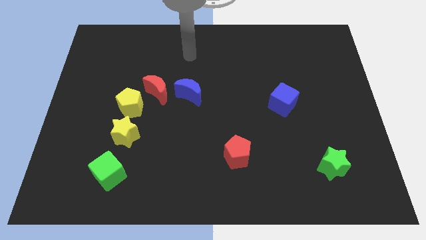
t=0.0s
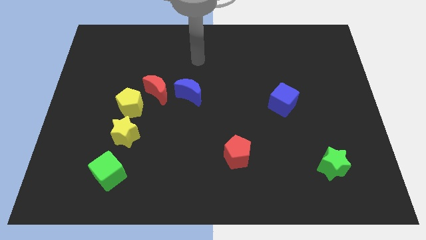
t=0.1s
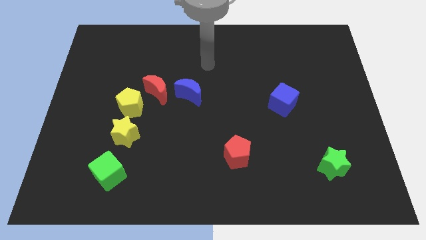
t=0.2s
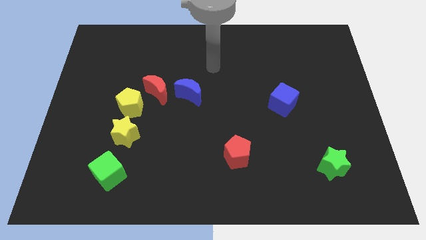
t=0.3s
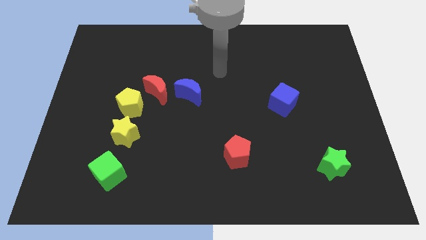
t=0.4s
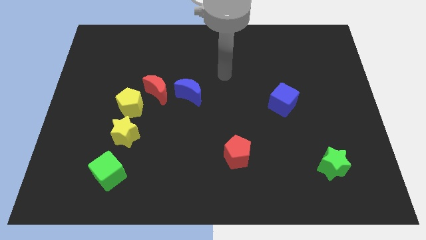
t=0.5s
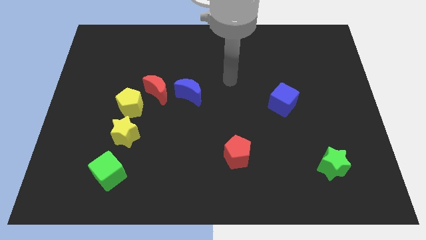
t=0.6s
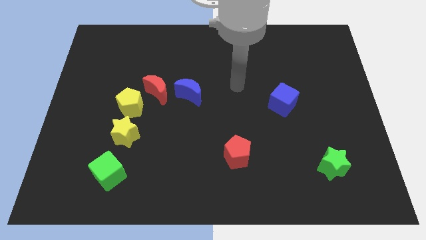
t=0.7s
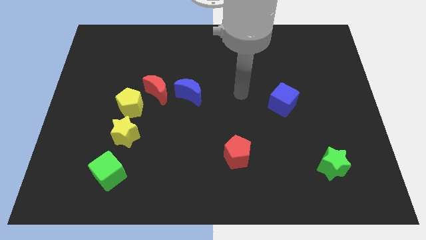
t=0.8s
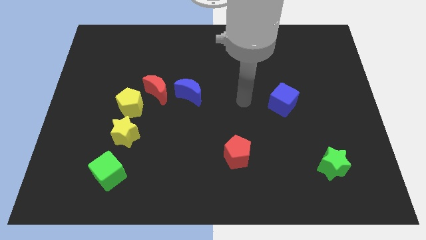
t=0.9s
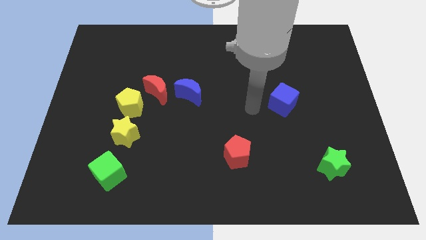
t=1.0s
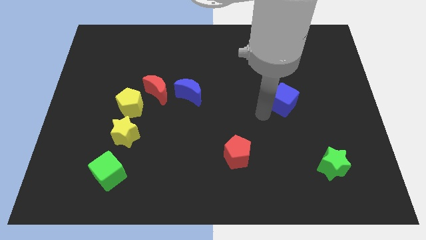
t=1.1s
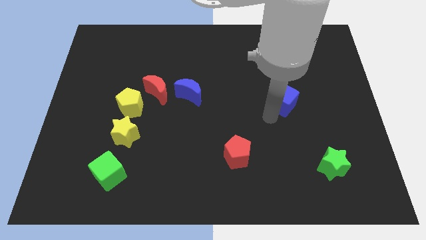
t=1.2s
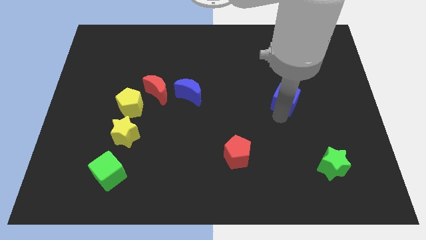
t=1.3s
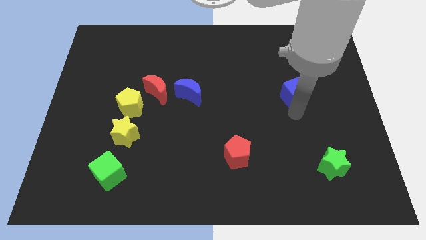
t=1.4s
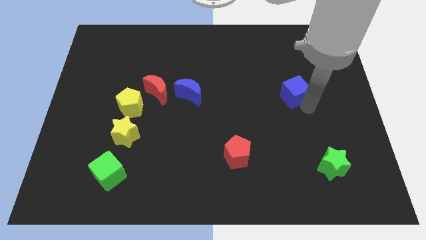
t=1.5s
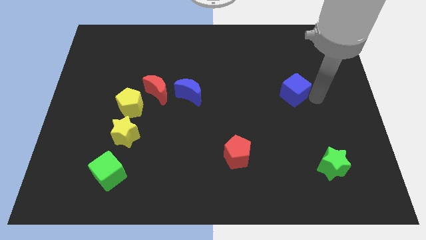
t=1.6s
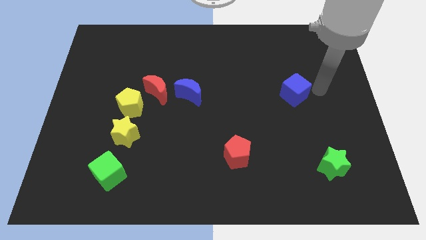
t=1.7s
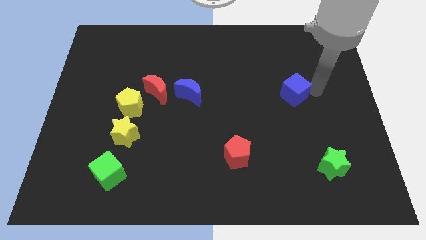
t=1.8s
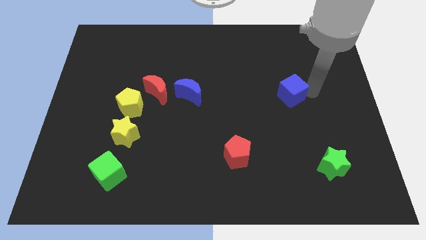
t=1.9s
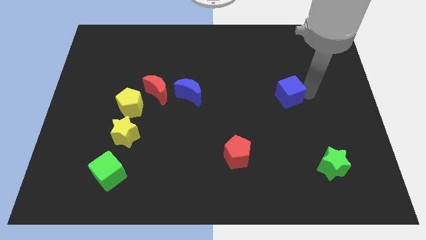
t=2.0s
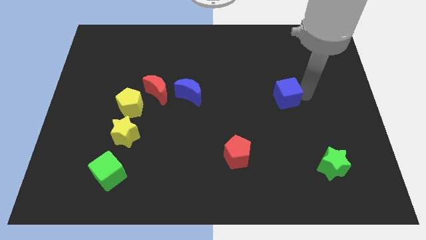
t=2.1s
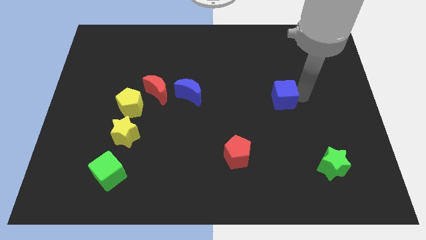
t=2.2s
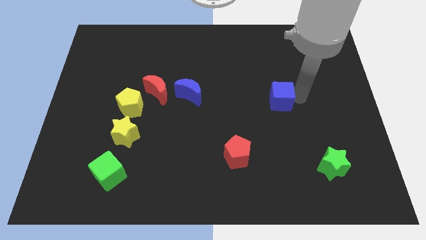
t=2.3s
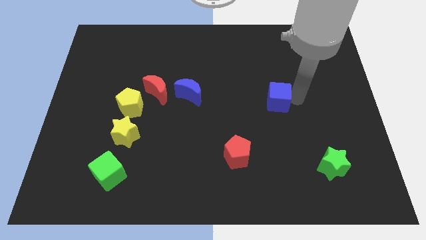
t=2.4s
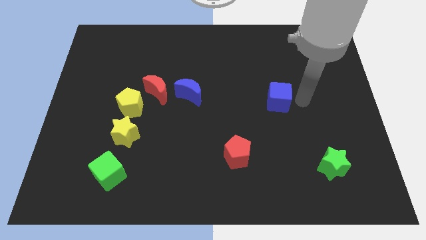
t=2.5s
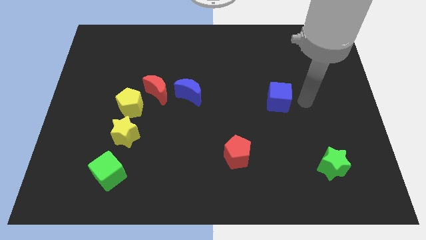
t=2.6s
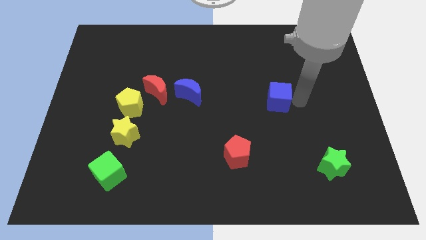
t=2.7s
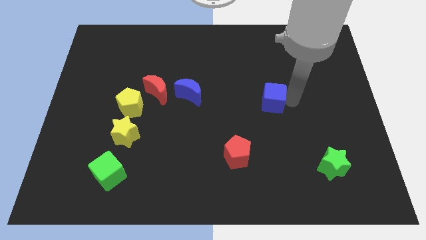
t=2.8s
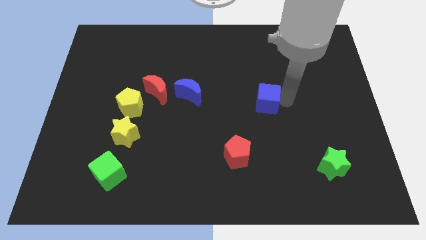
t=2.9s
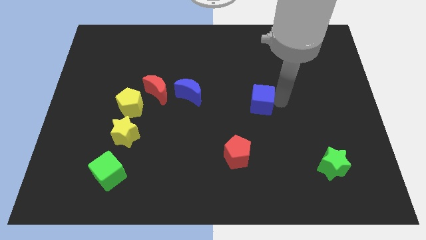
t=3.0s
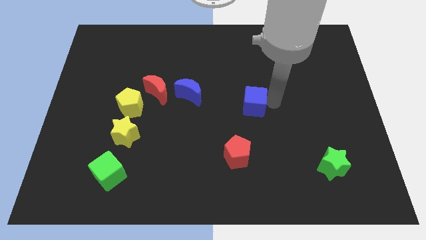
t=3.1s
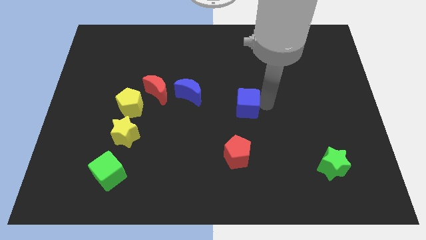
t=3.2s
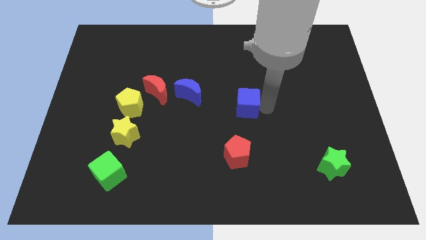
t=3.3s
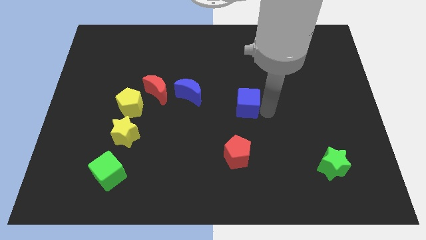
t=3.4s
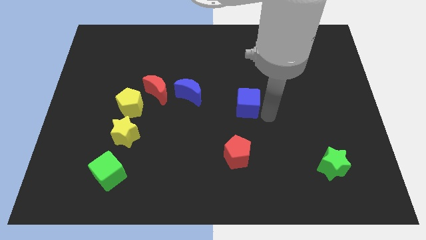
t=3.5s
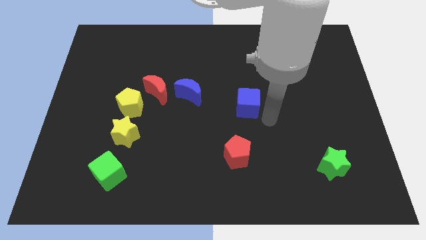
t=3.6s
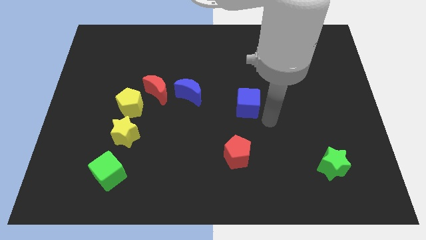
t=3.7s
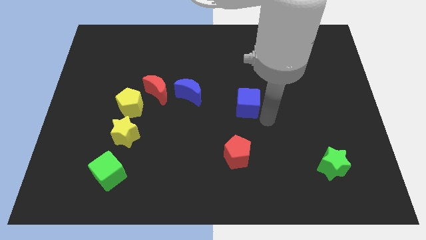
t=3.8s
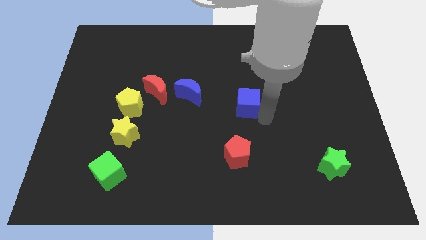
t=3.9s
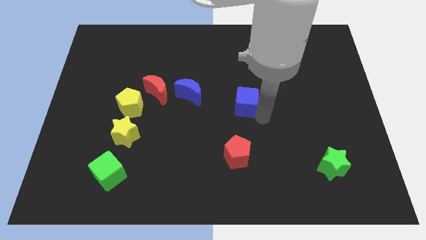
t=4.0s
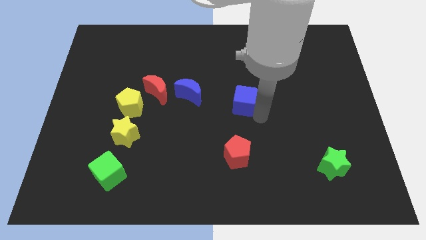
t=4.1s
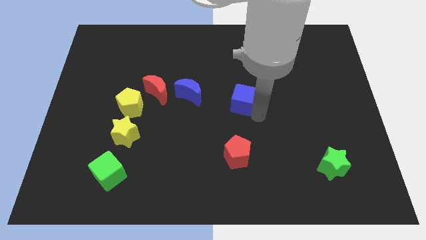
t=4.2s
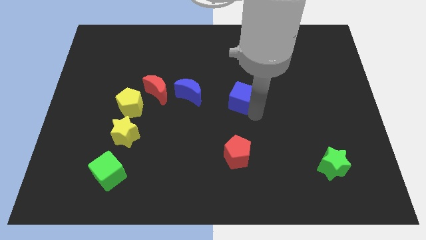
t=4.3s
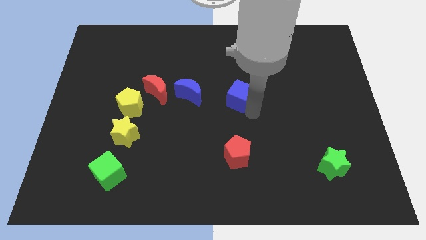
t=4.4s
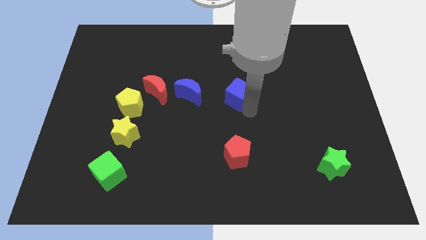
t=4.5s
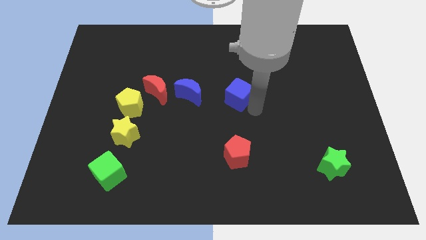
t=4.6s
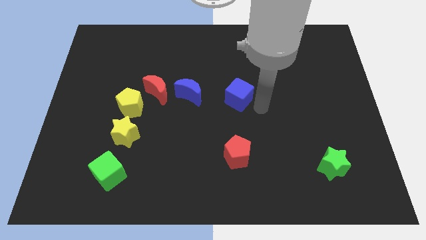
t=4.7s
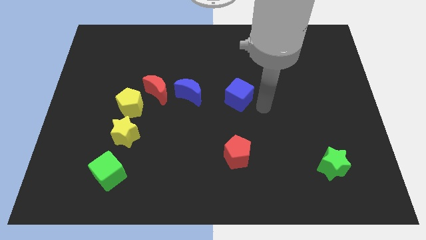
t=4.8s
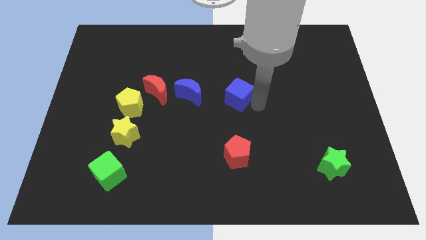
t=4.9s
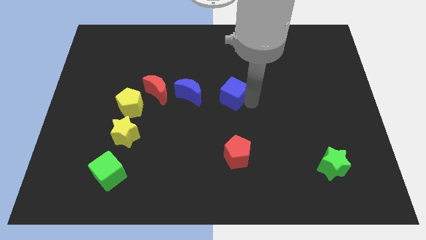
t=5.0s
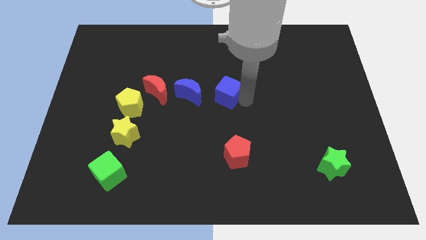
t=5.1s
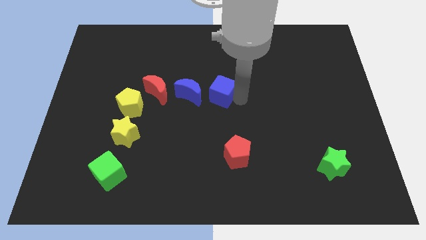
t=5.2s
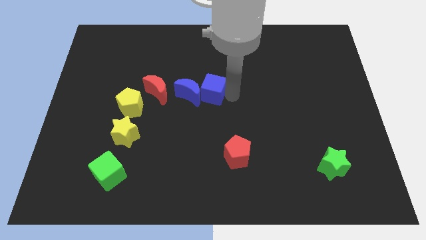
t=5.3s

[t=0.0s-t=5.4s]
slide the blue cube to the blue moon

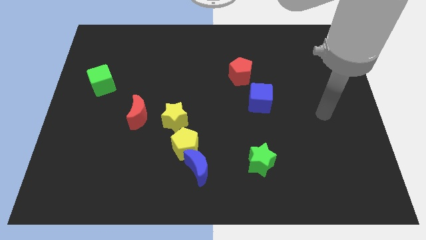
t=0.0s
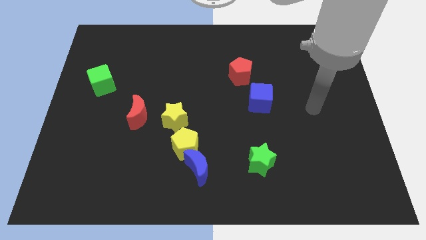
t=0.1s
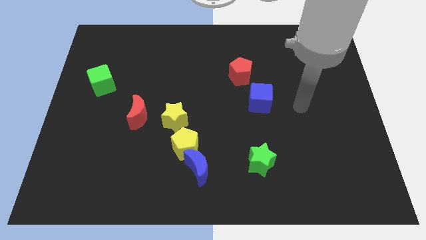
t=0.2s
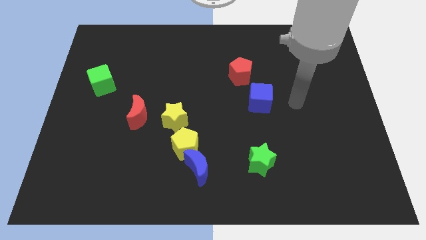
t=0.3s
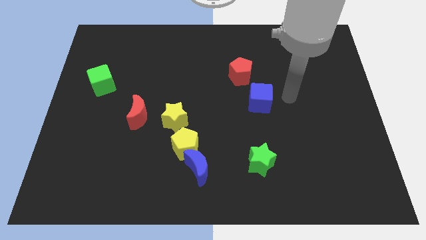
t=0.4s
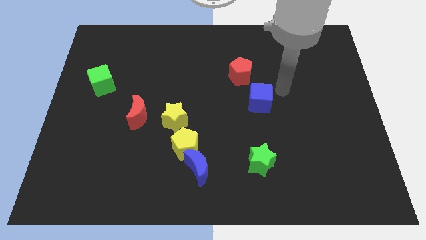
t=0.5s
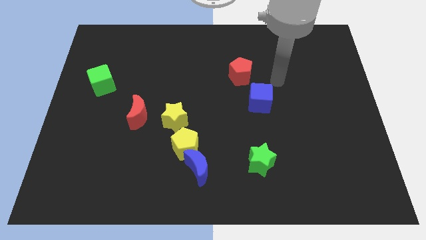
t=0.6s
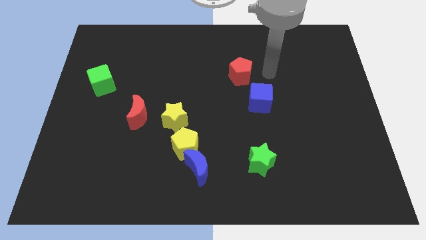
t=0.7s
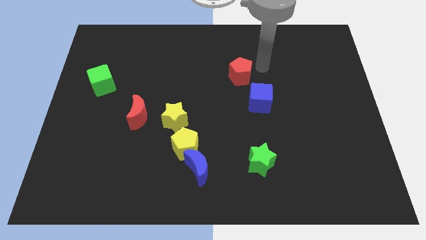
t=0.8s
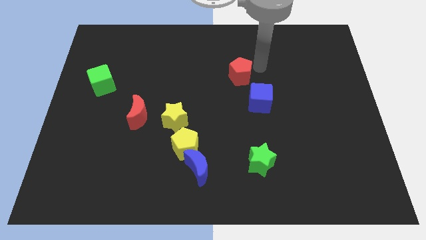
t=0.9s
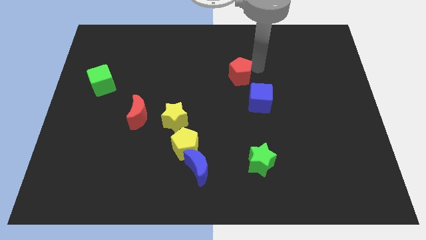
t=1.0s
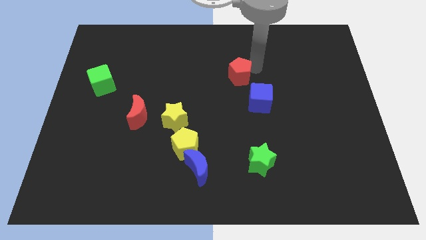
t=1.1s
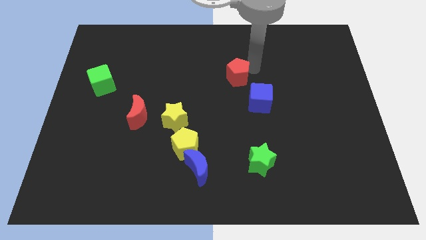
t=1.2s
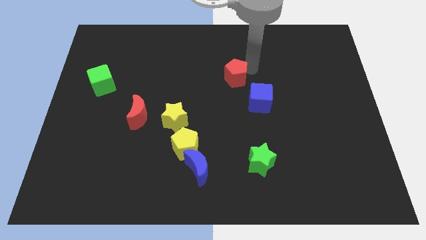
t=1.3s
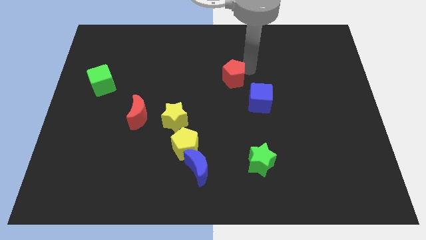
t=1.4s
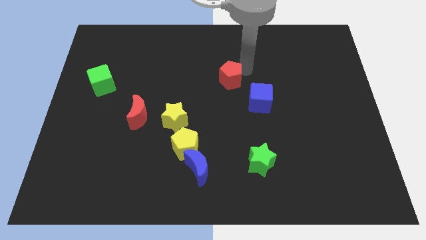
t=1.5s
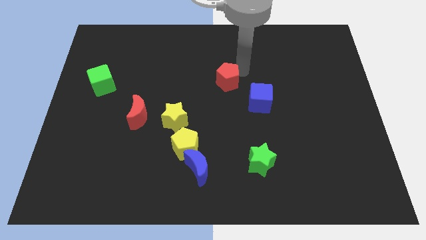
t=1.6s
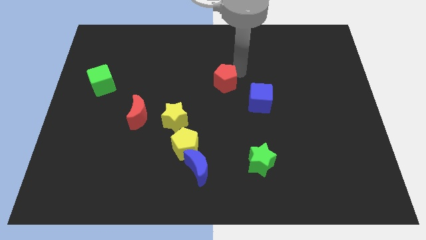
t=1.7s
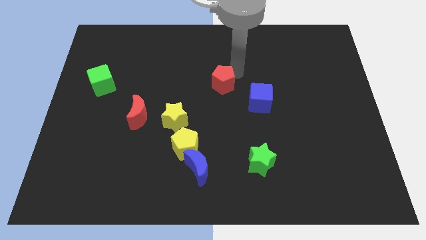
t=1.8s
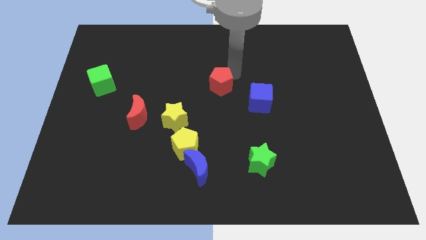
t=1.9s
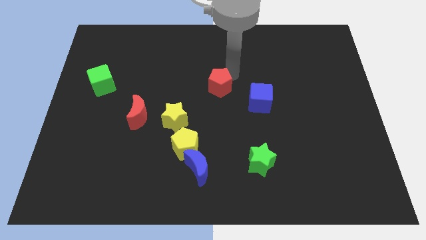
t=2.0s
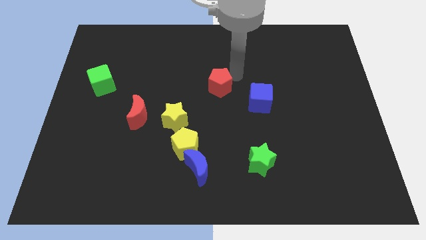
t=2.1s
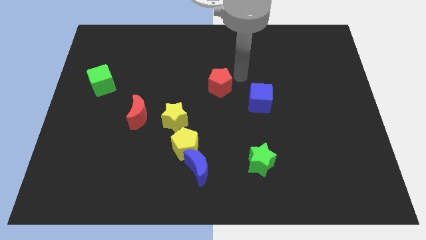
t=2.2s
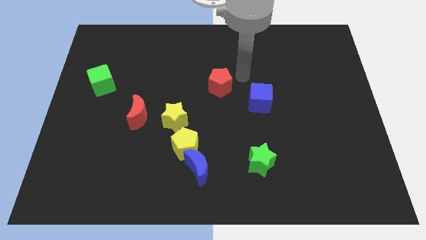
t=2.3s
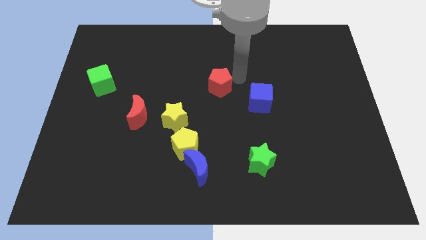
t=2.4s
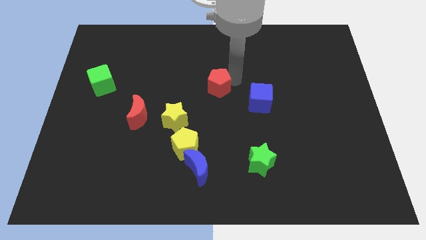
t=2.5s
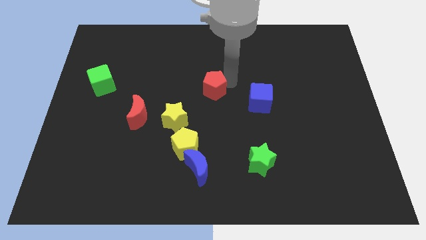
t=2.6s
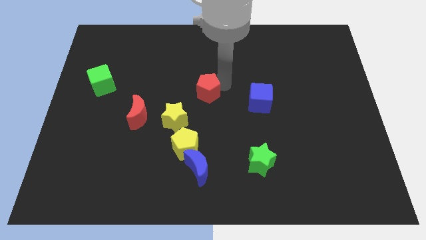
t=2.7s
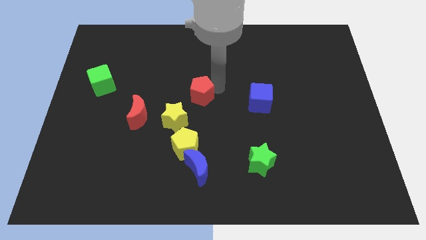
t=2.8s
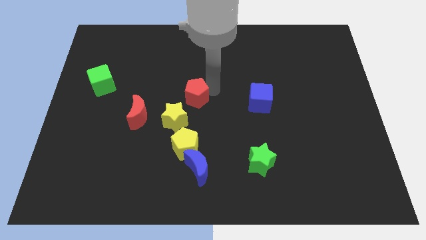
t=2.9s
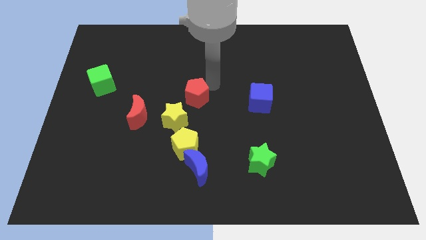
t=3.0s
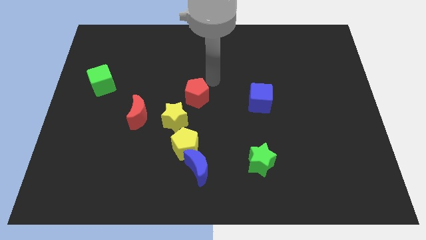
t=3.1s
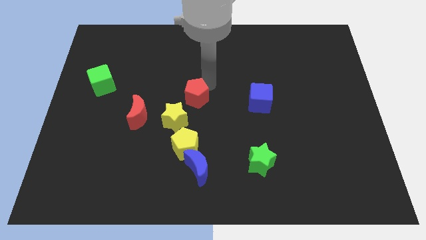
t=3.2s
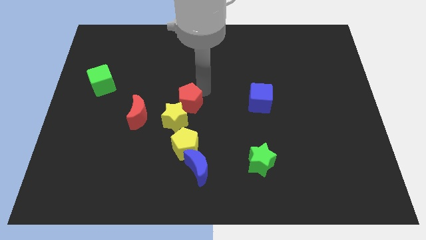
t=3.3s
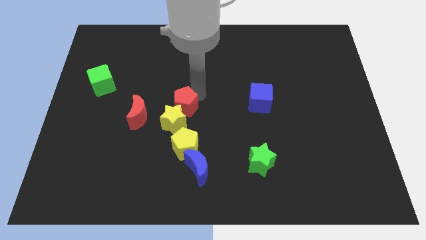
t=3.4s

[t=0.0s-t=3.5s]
push the red pentagon close to the yellow star
